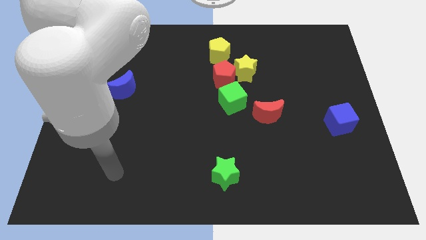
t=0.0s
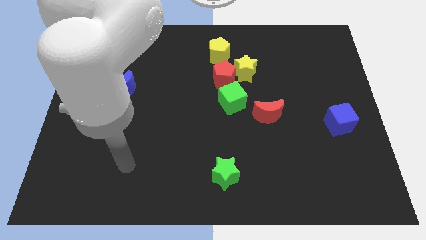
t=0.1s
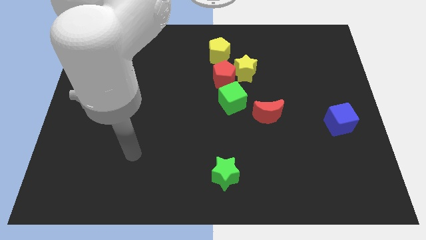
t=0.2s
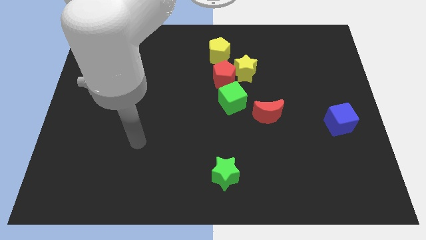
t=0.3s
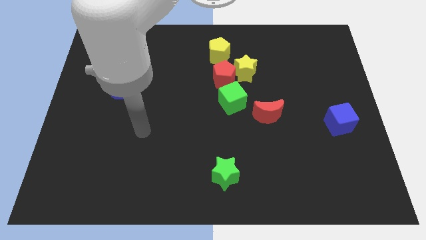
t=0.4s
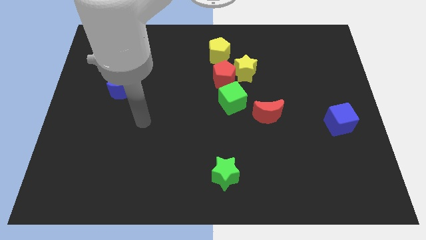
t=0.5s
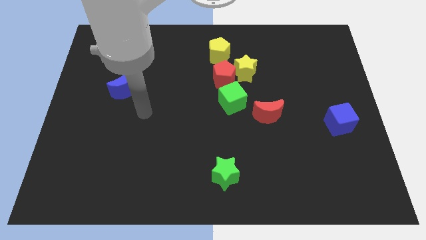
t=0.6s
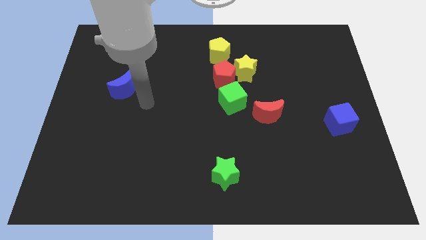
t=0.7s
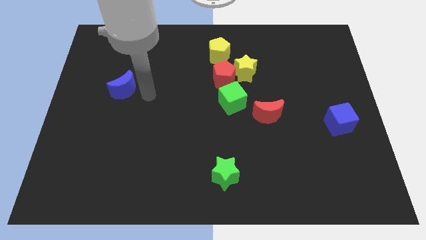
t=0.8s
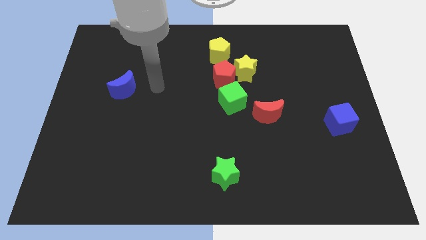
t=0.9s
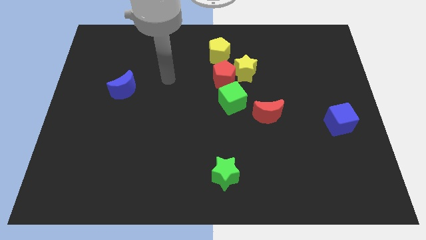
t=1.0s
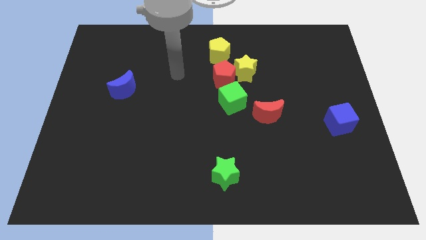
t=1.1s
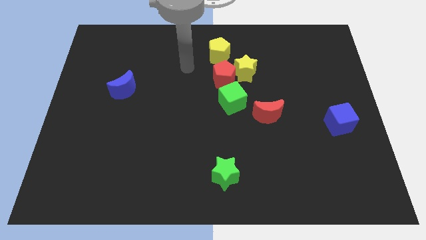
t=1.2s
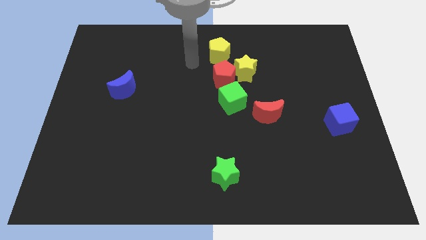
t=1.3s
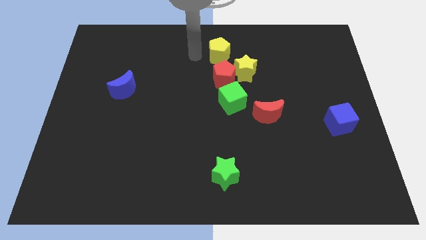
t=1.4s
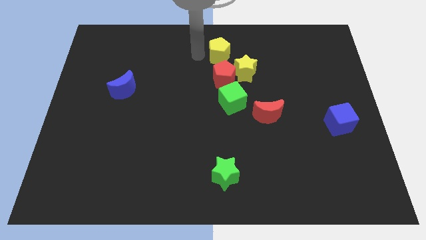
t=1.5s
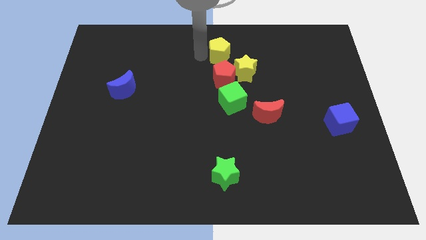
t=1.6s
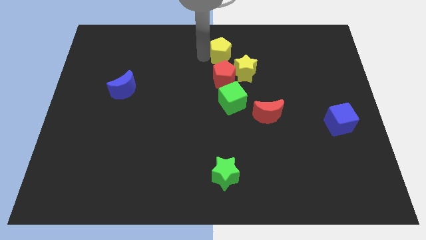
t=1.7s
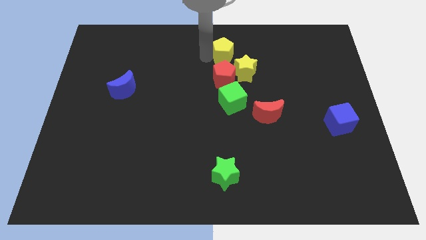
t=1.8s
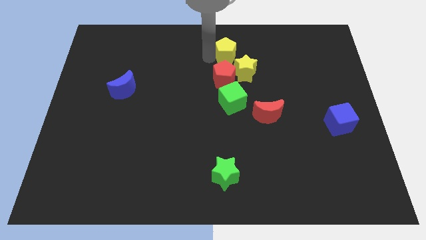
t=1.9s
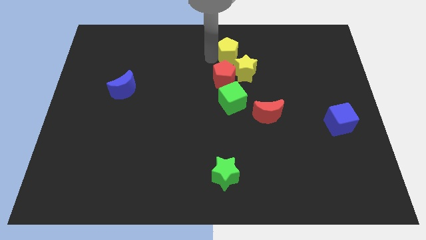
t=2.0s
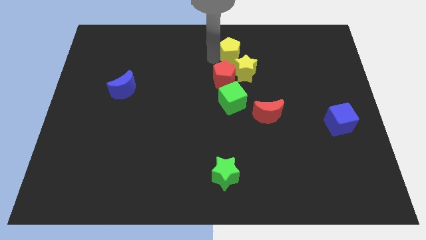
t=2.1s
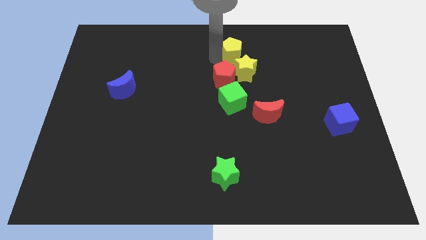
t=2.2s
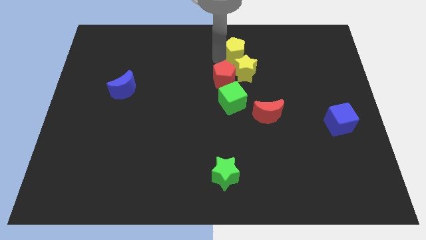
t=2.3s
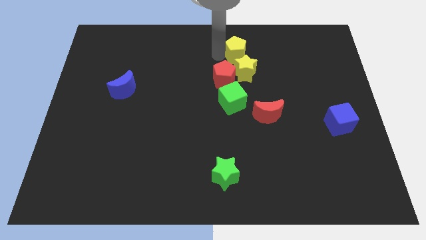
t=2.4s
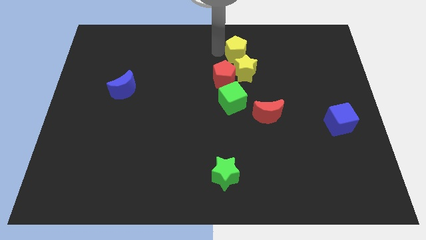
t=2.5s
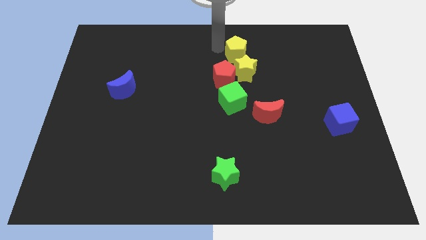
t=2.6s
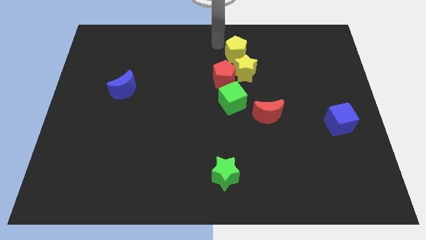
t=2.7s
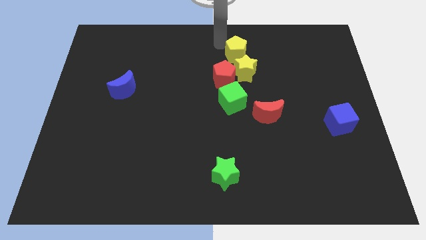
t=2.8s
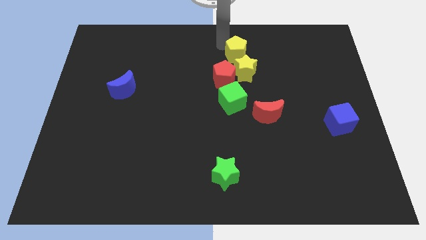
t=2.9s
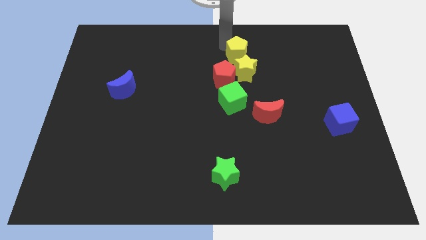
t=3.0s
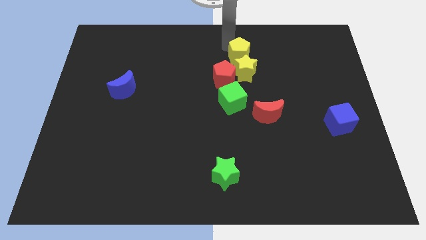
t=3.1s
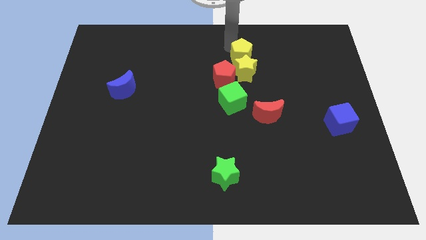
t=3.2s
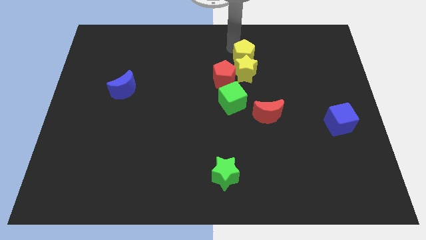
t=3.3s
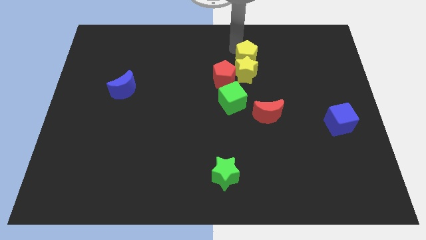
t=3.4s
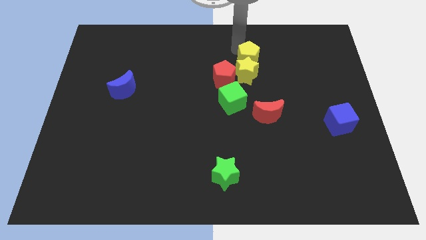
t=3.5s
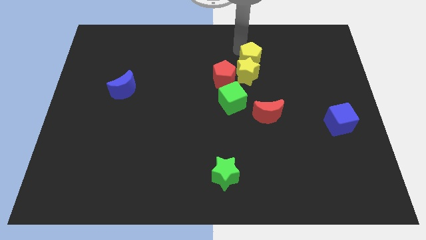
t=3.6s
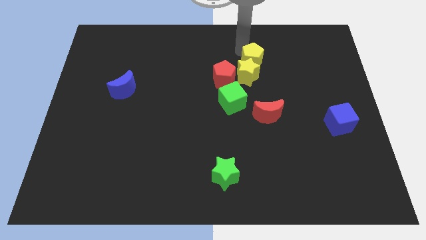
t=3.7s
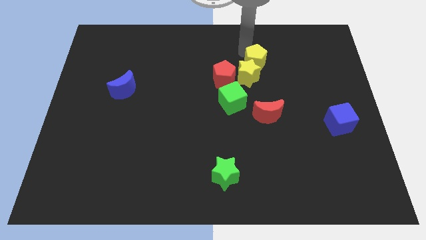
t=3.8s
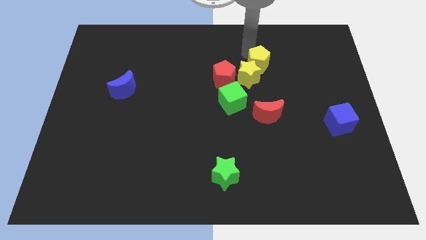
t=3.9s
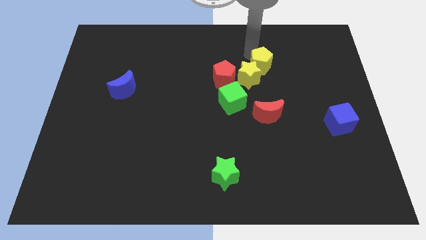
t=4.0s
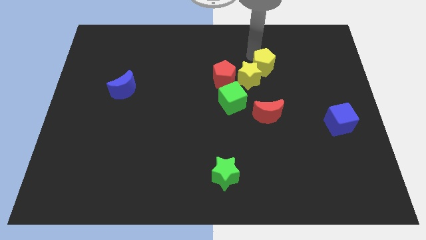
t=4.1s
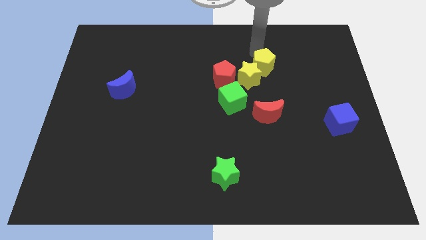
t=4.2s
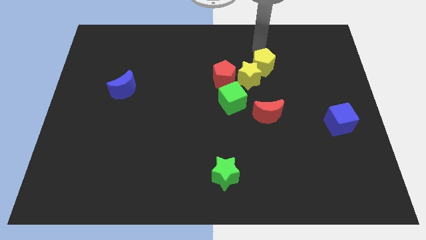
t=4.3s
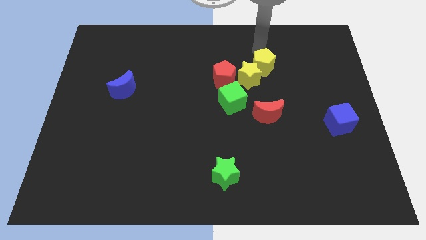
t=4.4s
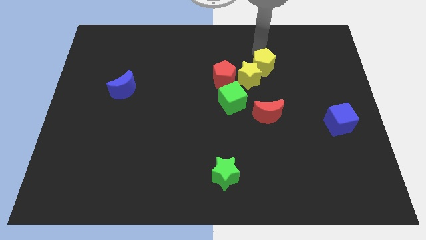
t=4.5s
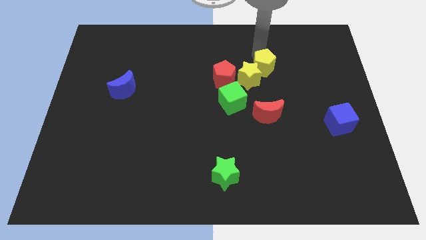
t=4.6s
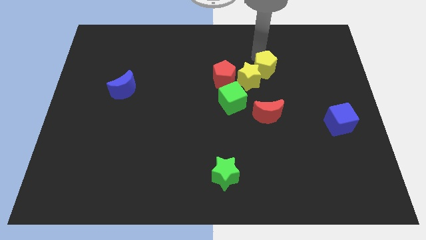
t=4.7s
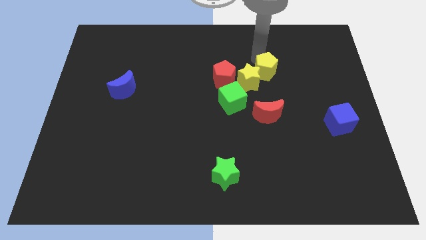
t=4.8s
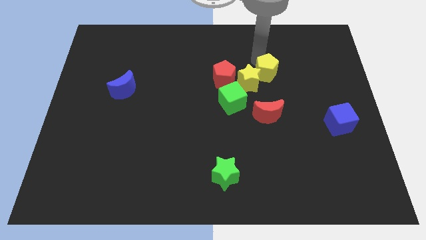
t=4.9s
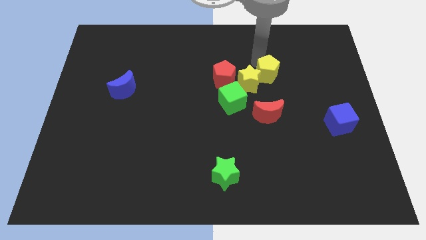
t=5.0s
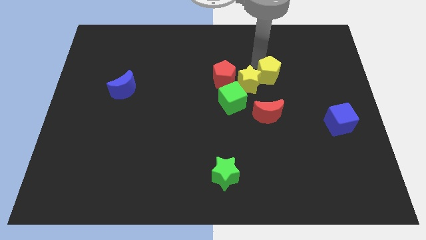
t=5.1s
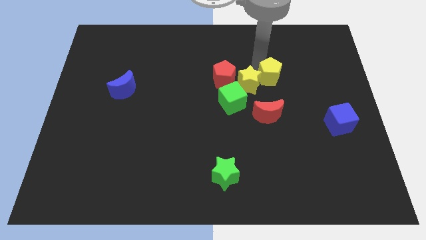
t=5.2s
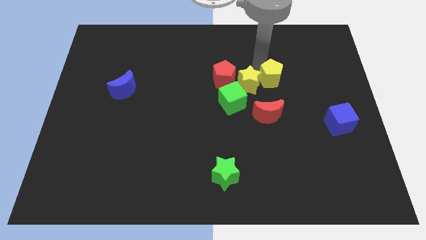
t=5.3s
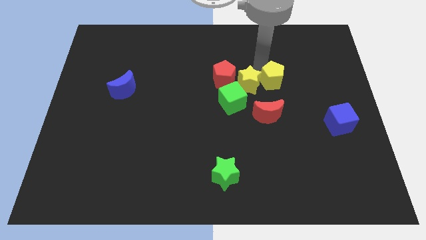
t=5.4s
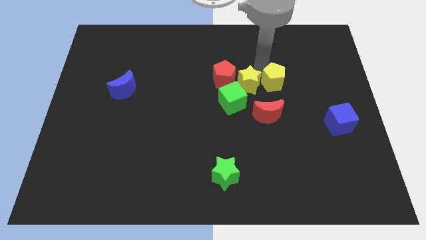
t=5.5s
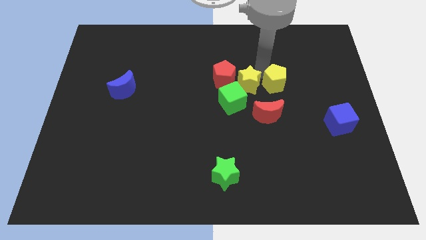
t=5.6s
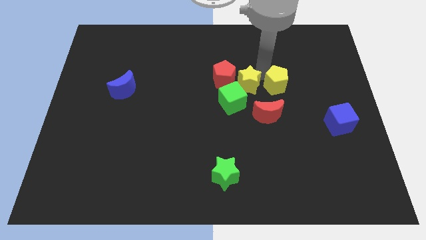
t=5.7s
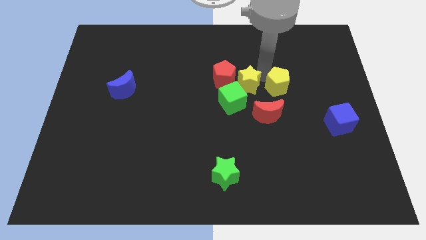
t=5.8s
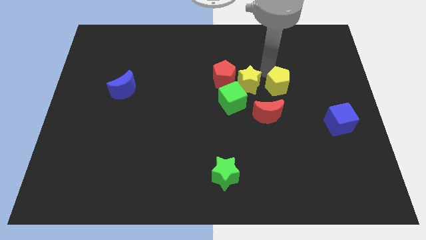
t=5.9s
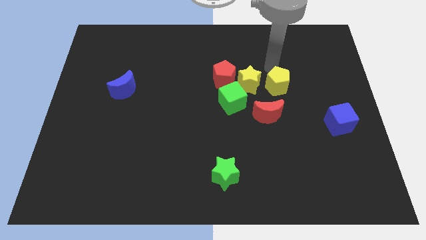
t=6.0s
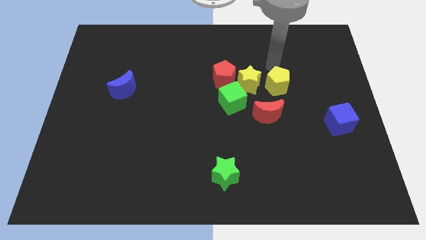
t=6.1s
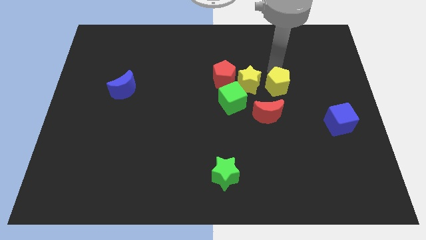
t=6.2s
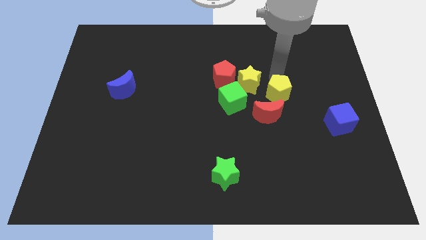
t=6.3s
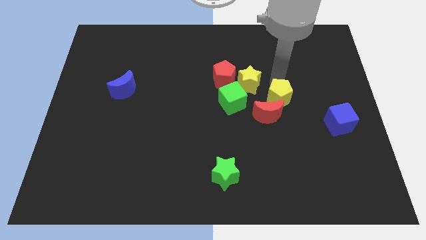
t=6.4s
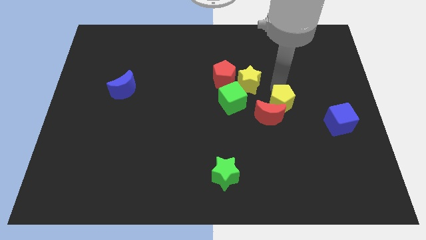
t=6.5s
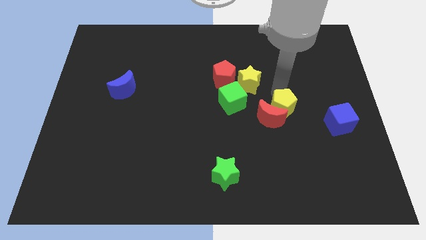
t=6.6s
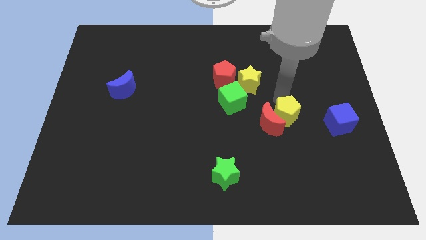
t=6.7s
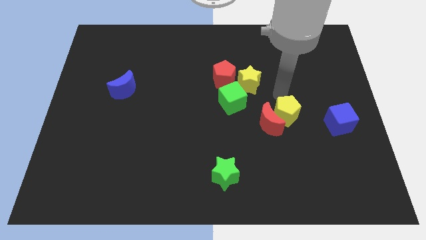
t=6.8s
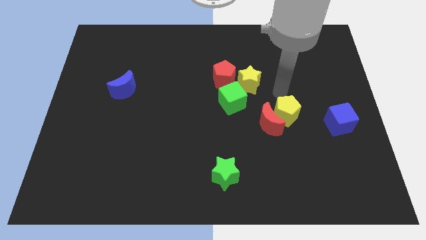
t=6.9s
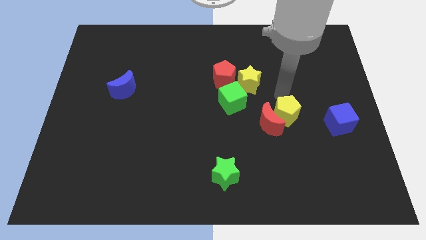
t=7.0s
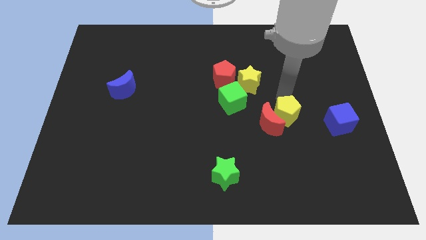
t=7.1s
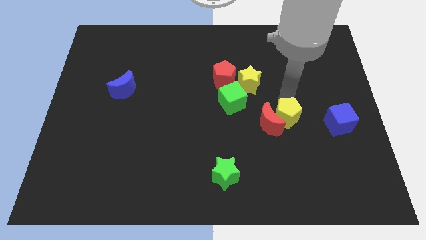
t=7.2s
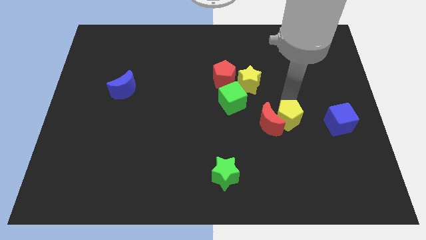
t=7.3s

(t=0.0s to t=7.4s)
slide the yellow pentagon to the bottom right side of the red moon
